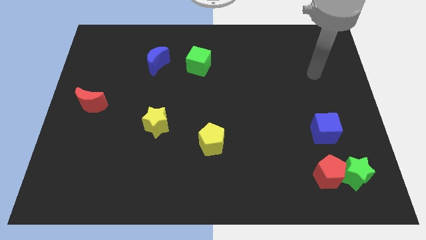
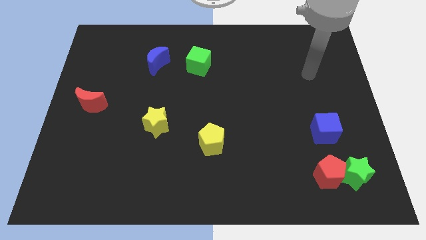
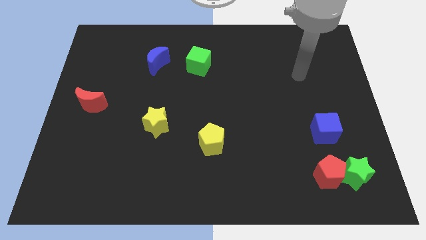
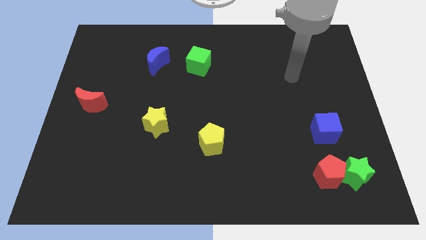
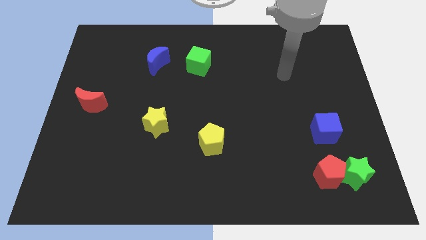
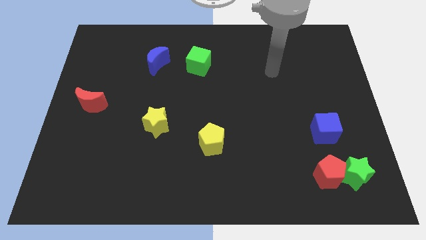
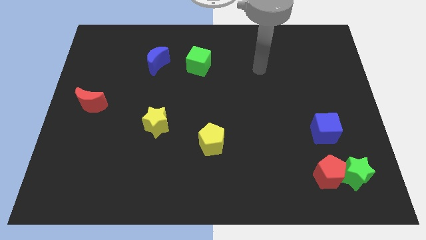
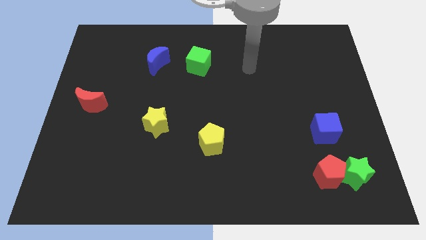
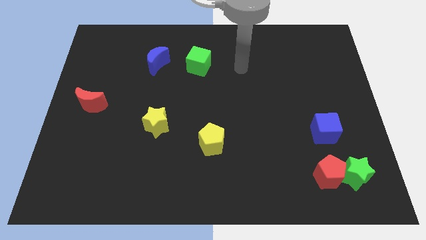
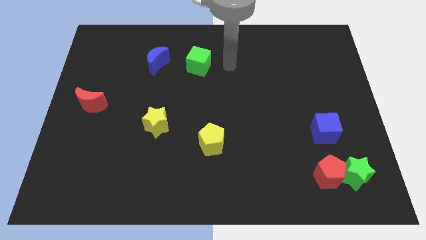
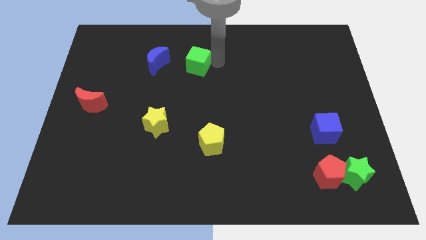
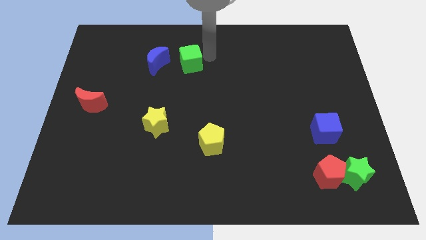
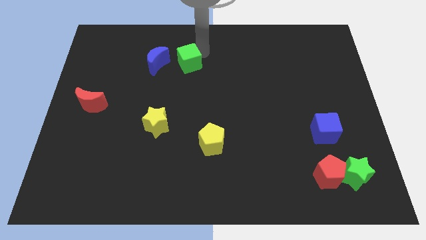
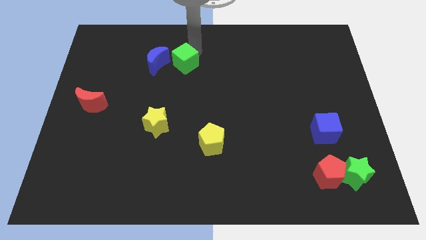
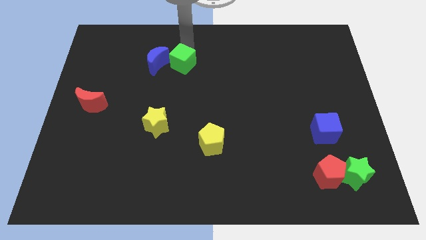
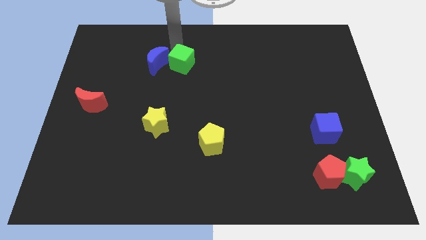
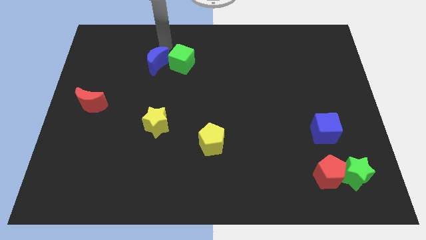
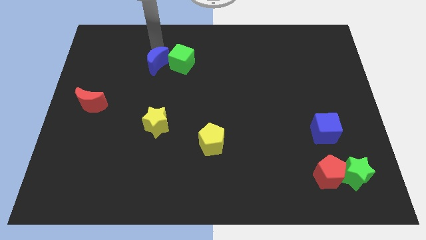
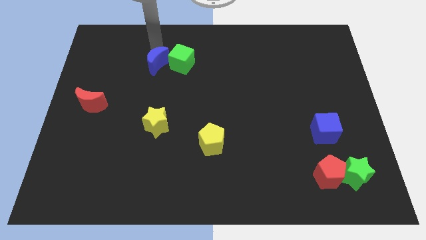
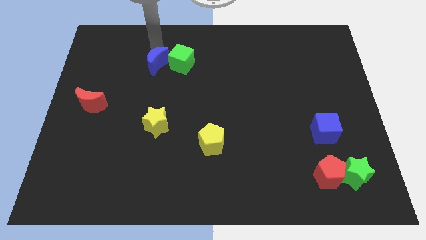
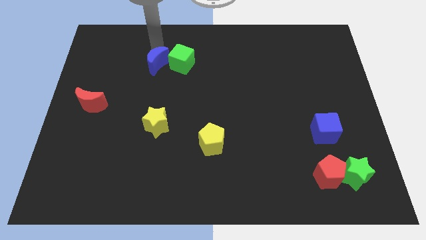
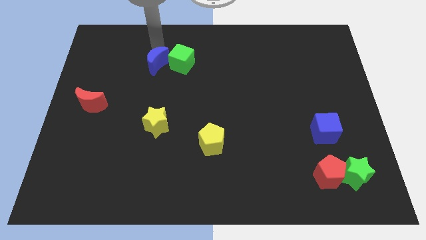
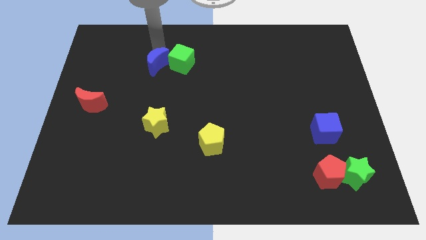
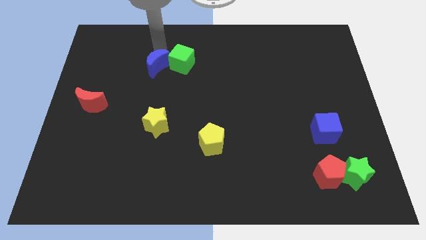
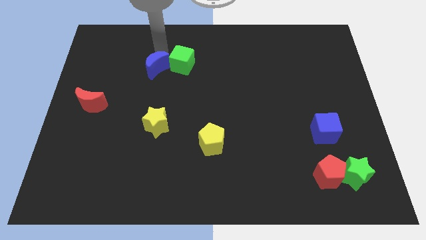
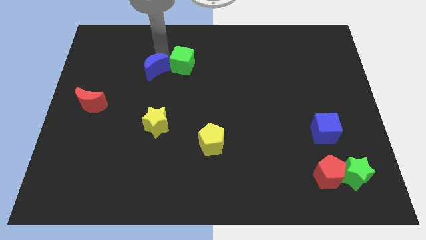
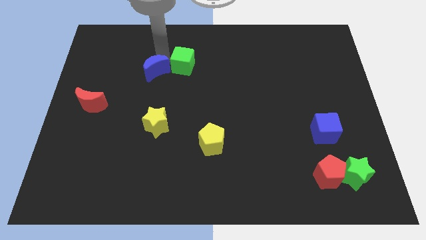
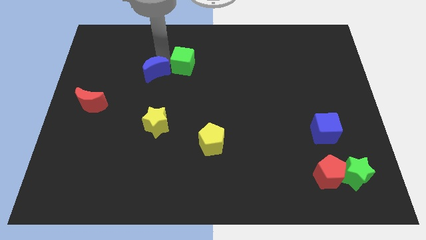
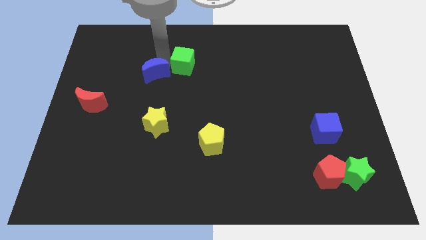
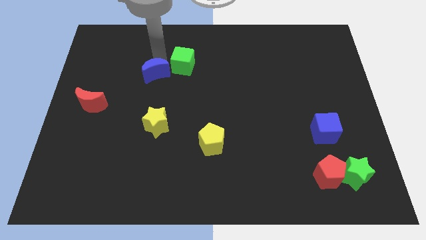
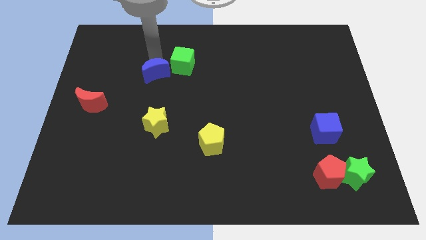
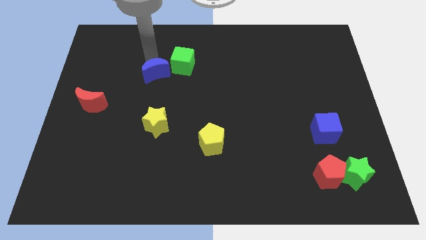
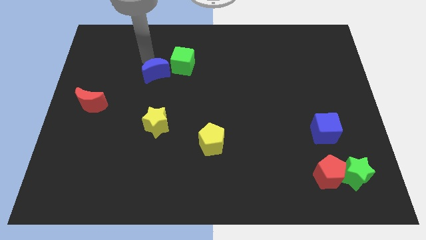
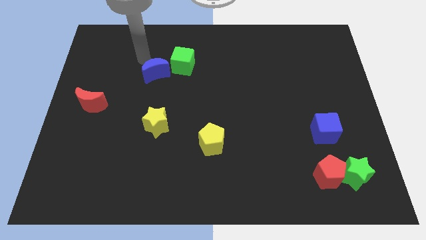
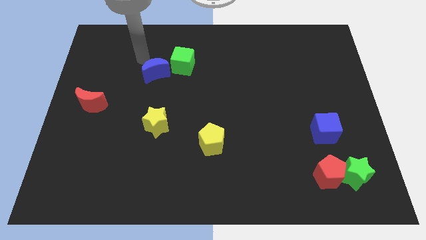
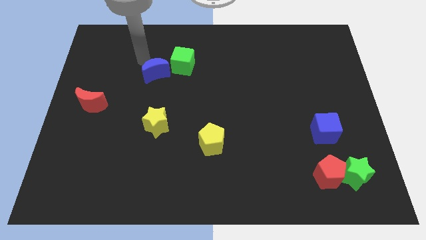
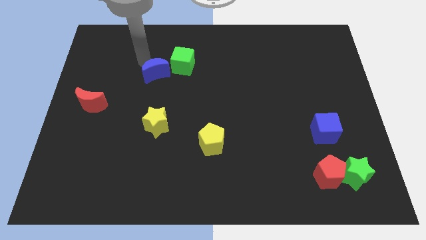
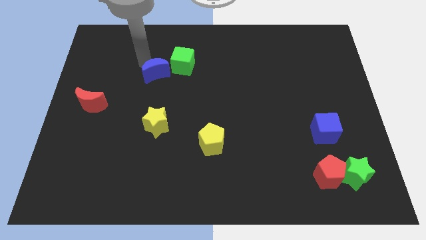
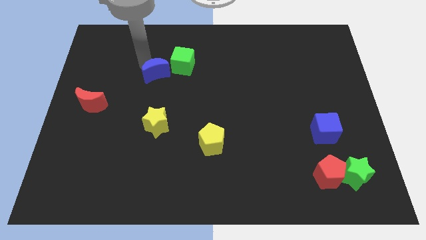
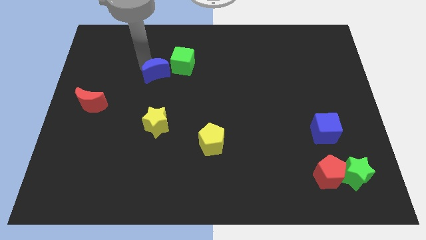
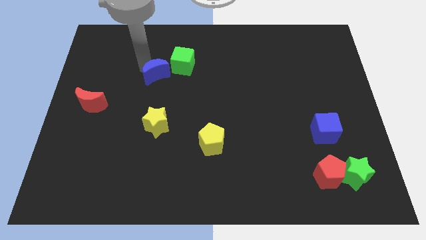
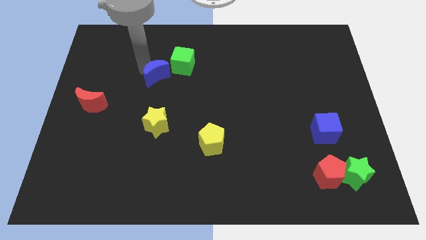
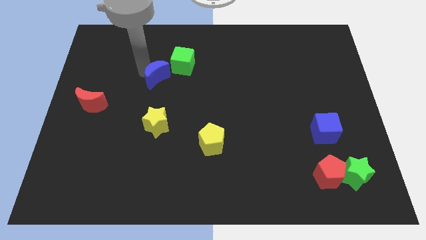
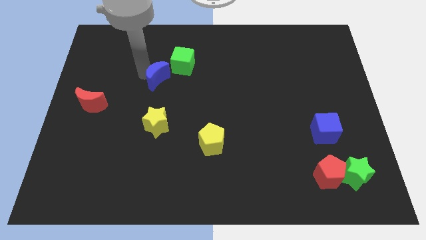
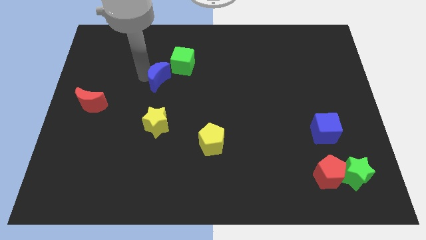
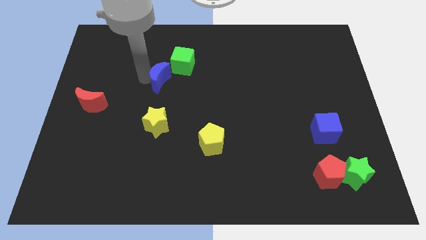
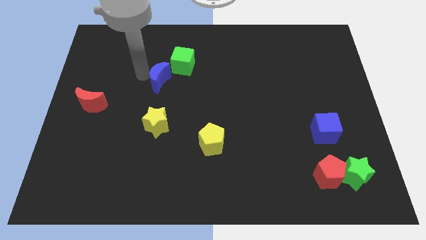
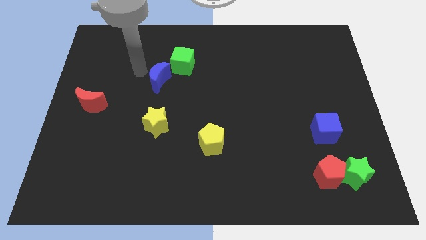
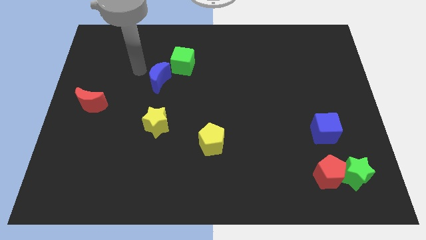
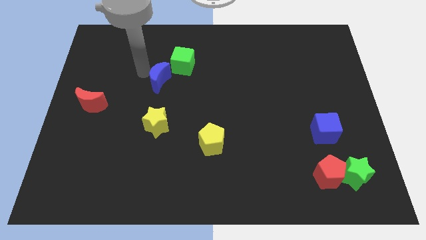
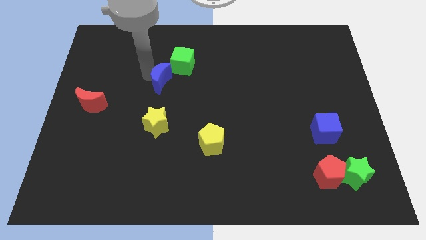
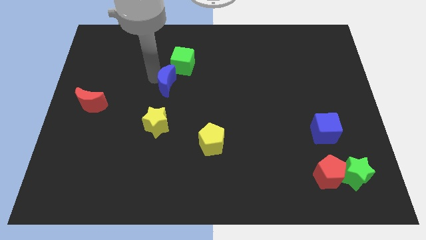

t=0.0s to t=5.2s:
push the blue moon a bit diagonally downwards and to the right

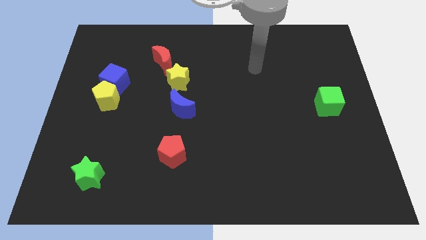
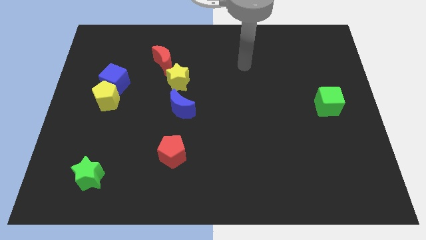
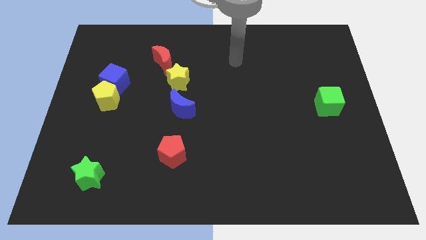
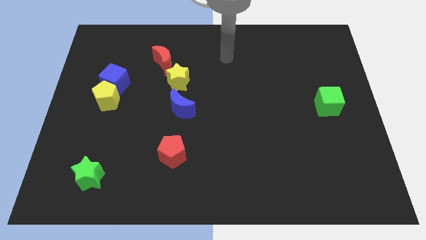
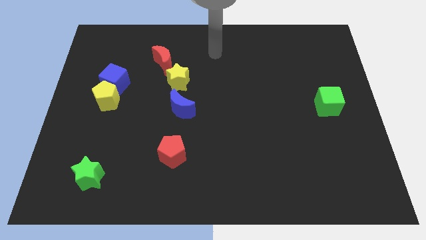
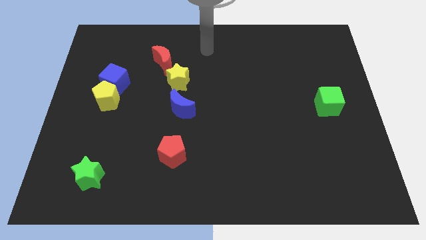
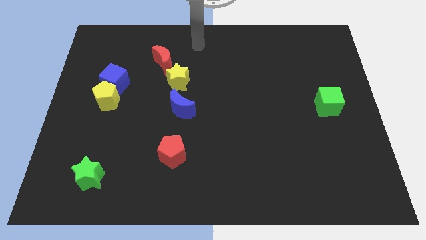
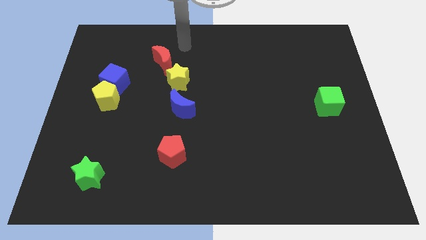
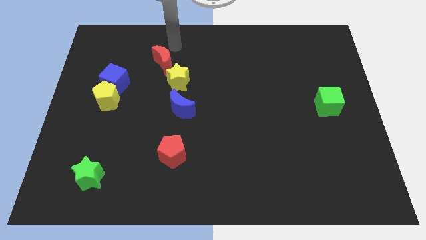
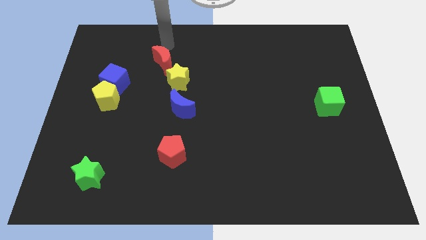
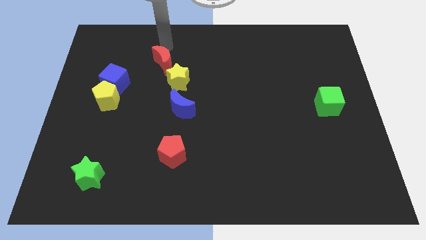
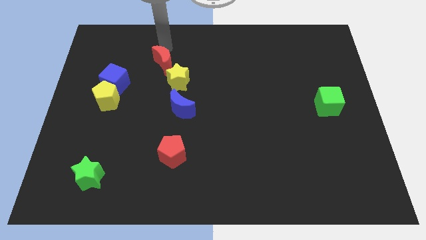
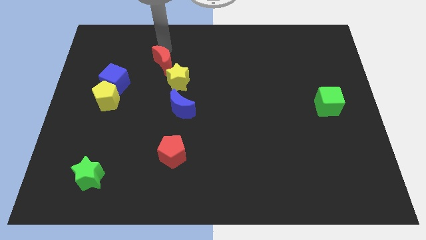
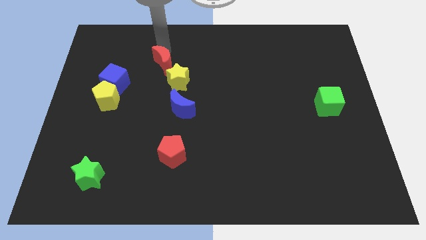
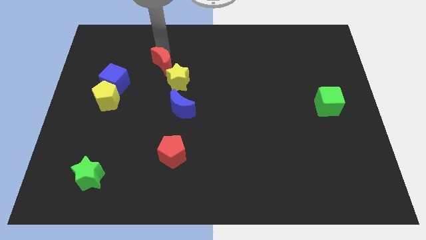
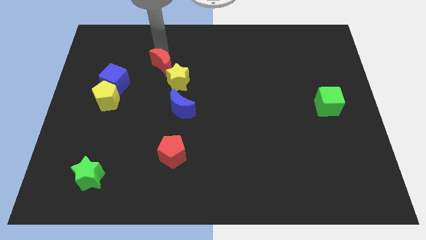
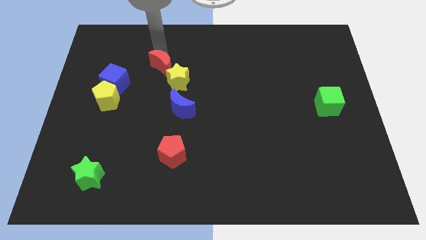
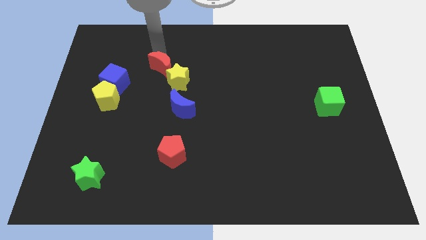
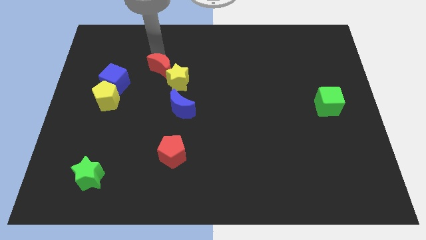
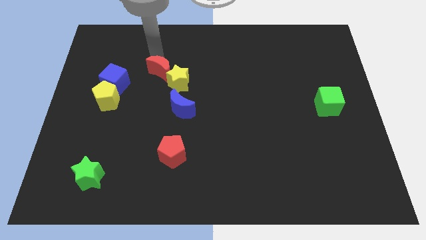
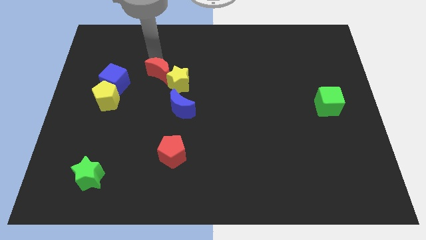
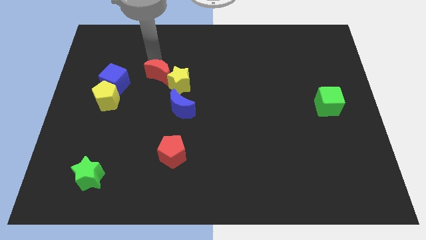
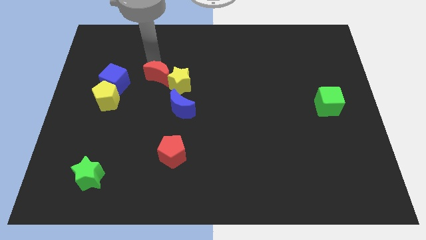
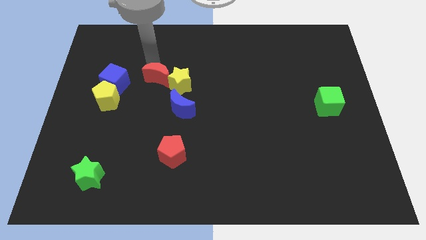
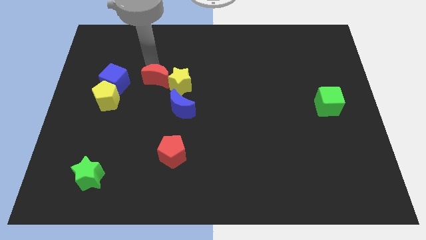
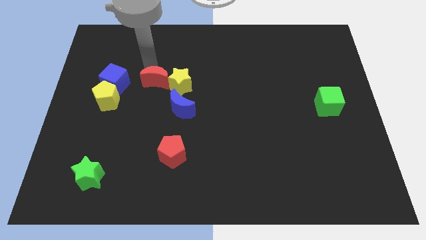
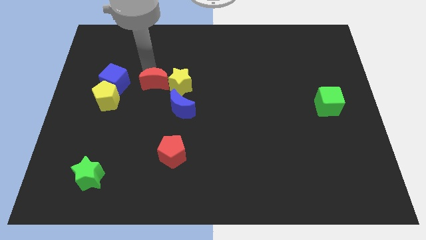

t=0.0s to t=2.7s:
slightly slide the red moon down
